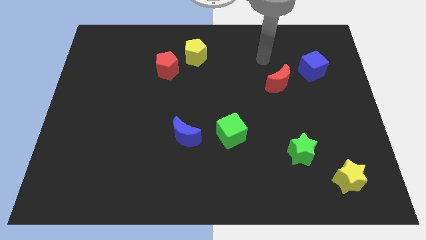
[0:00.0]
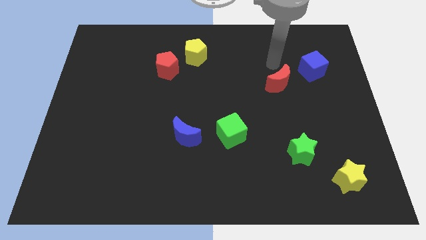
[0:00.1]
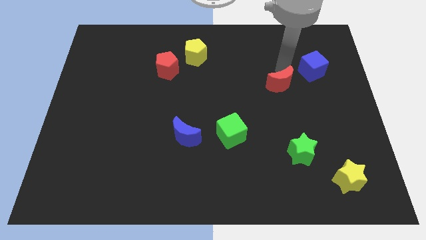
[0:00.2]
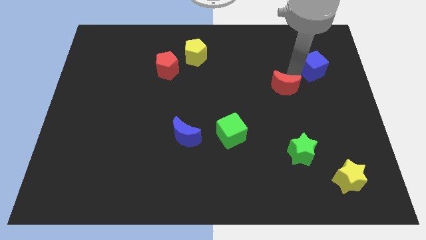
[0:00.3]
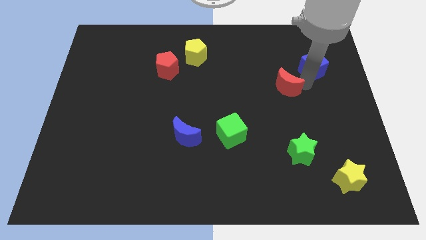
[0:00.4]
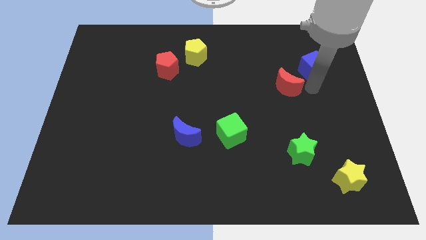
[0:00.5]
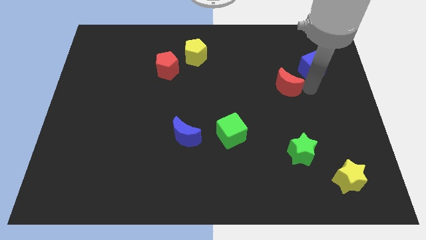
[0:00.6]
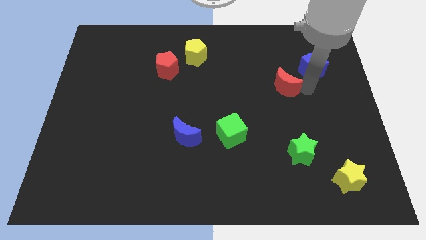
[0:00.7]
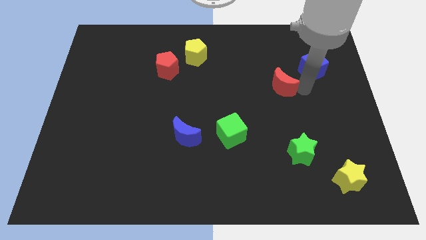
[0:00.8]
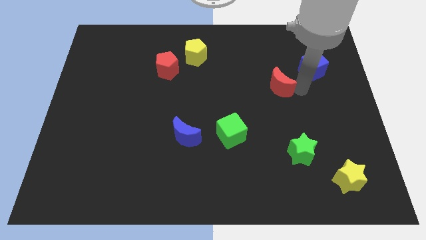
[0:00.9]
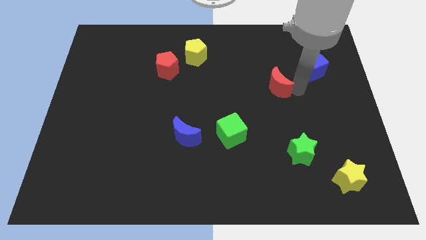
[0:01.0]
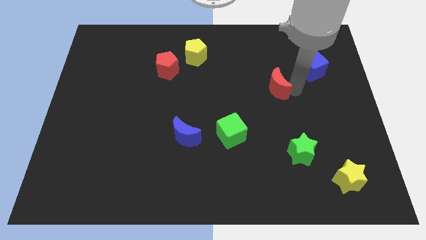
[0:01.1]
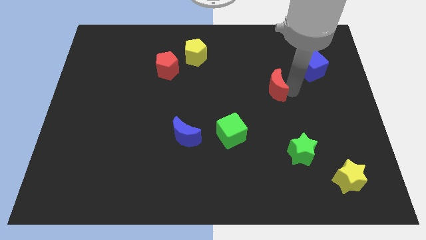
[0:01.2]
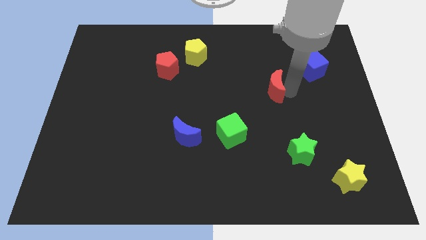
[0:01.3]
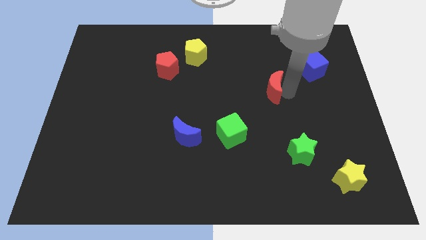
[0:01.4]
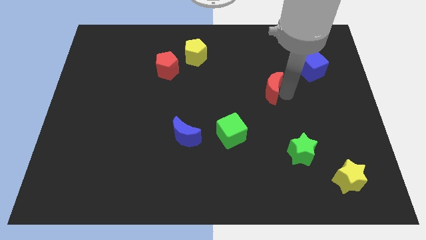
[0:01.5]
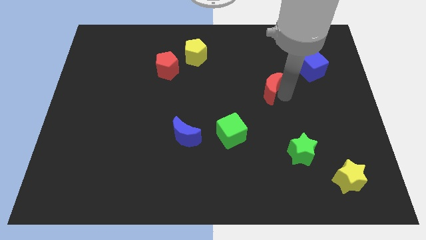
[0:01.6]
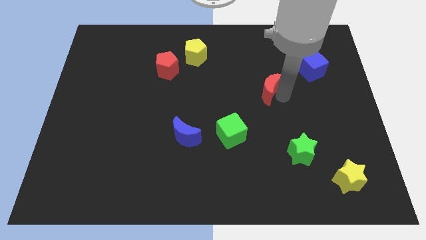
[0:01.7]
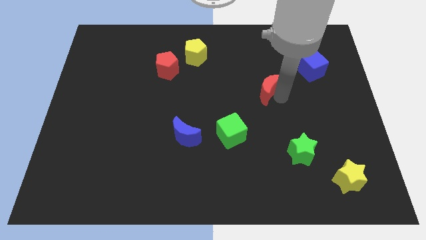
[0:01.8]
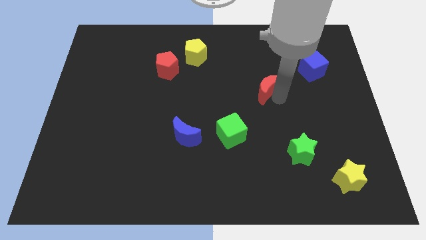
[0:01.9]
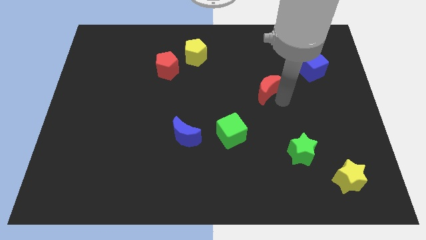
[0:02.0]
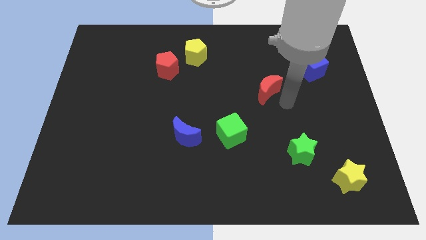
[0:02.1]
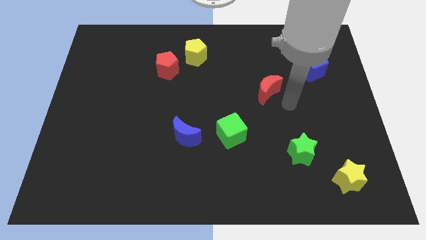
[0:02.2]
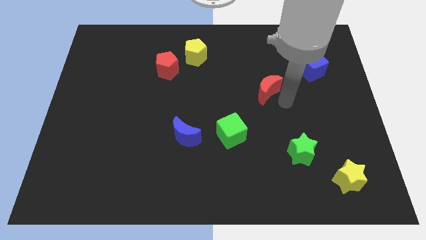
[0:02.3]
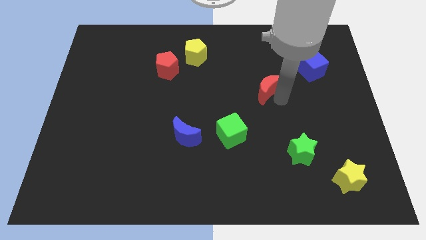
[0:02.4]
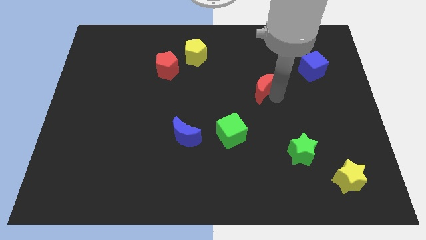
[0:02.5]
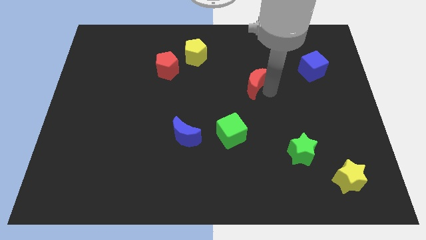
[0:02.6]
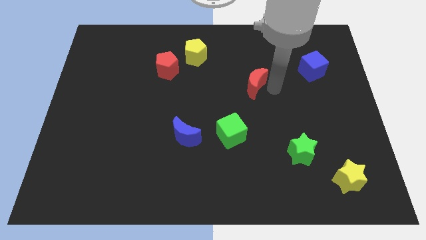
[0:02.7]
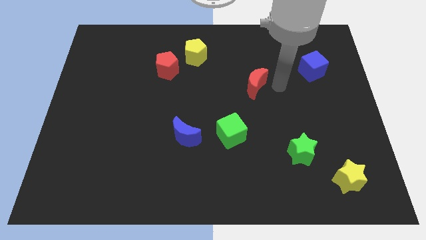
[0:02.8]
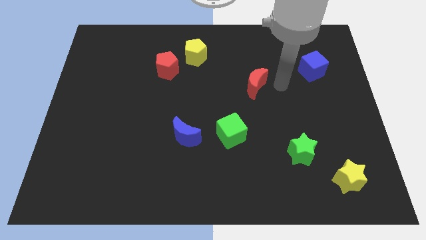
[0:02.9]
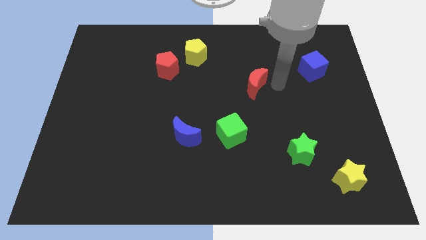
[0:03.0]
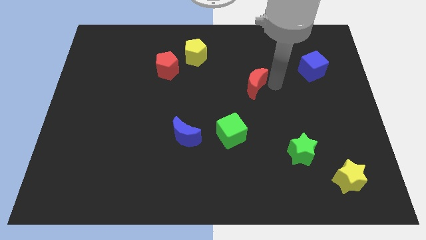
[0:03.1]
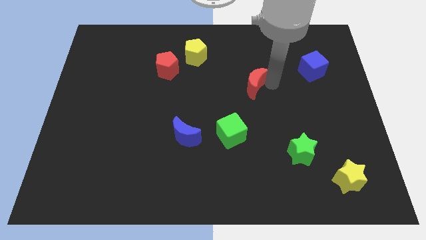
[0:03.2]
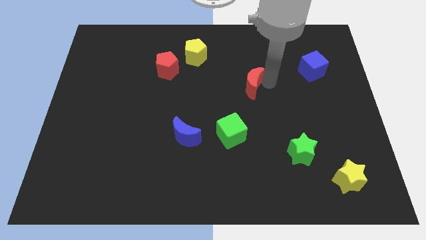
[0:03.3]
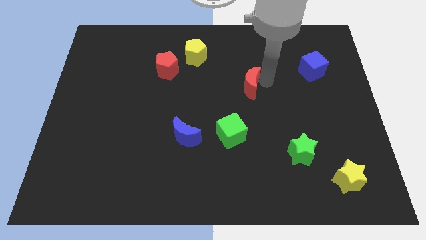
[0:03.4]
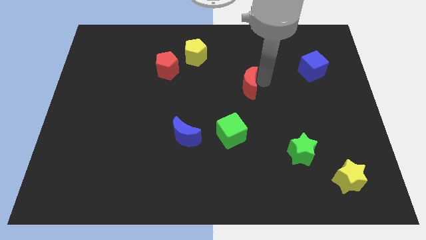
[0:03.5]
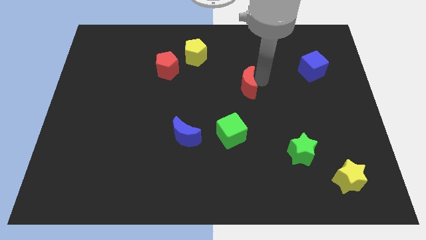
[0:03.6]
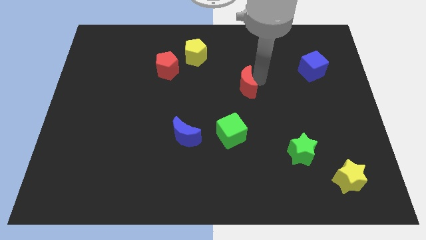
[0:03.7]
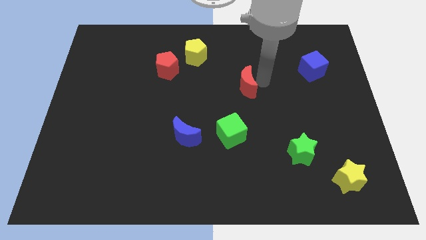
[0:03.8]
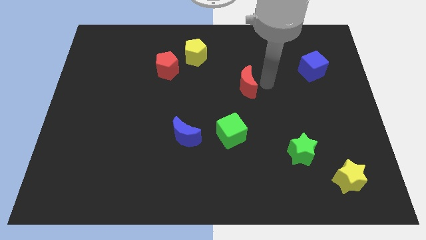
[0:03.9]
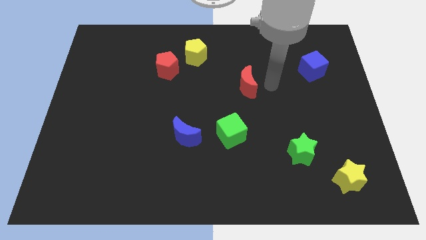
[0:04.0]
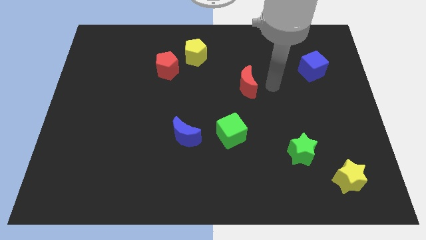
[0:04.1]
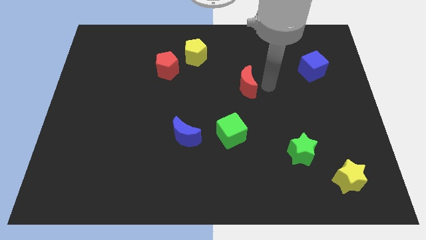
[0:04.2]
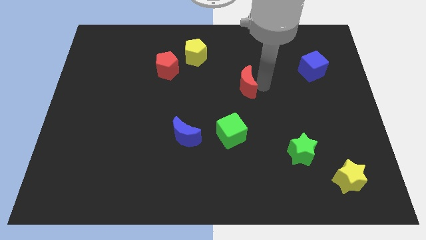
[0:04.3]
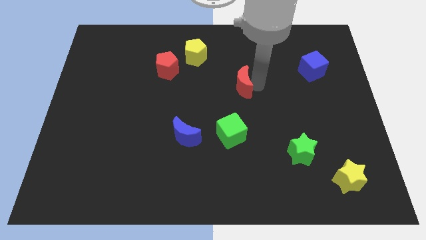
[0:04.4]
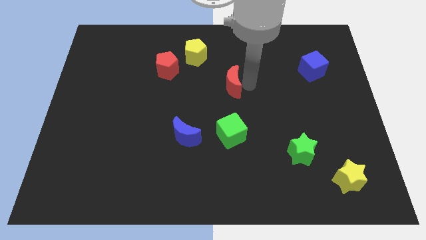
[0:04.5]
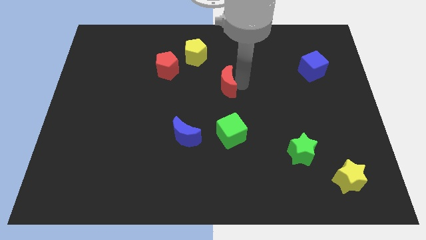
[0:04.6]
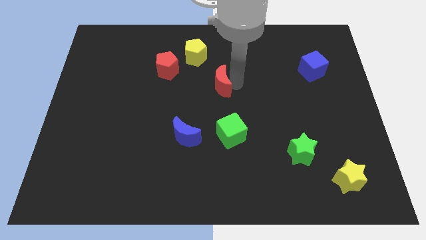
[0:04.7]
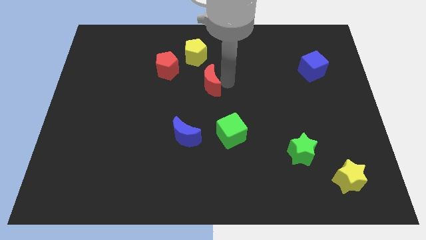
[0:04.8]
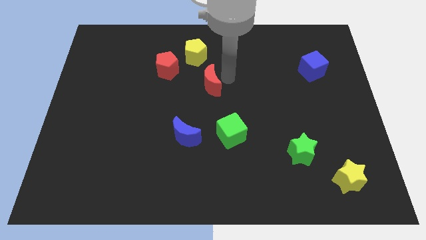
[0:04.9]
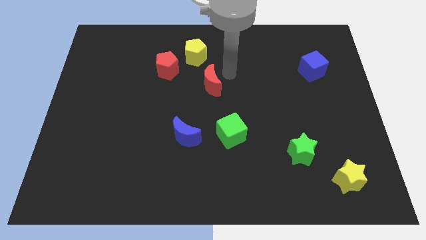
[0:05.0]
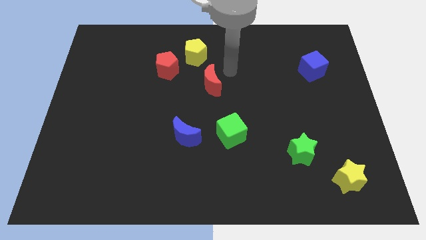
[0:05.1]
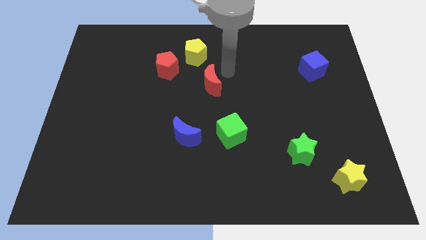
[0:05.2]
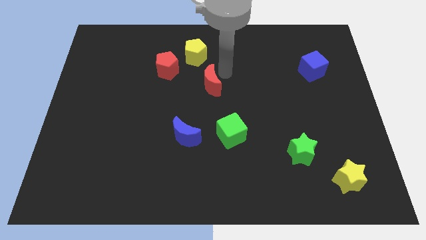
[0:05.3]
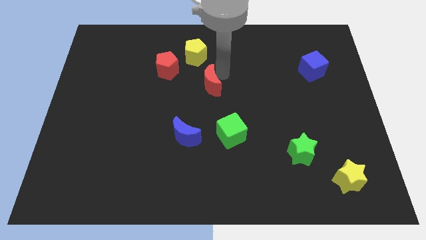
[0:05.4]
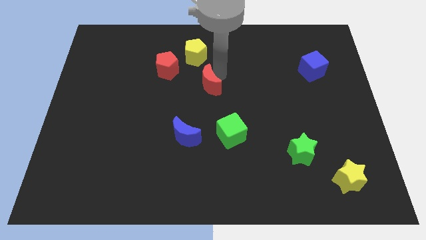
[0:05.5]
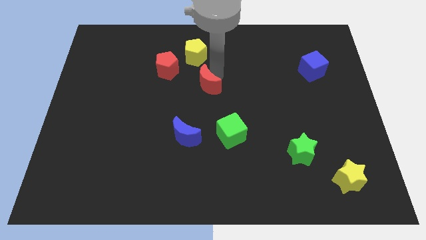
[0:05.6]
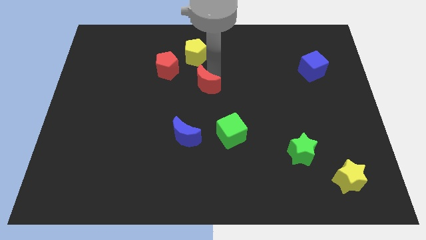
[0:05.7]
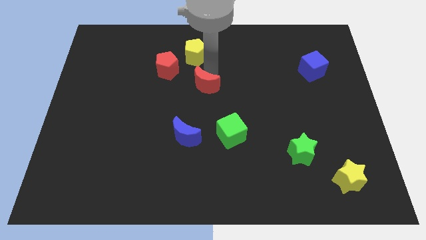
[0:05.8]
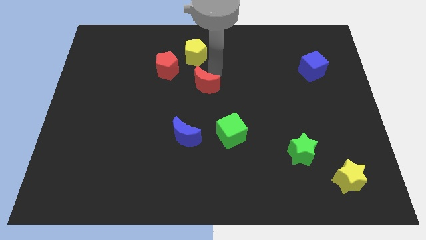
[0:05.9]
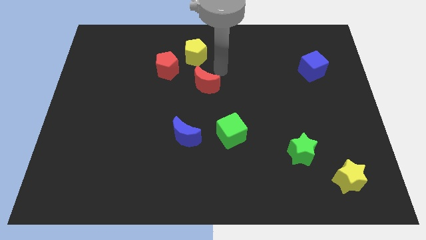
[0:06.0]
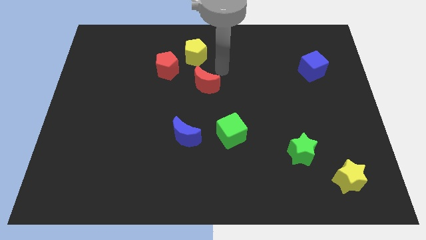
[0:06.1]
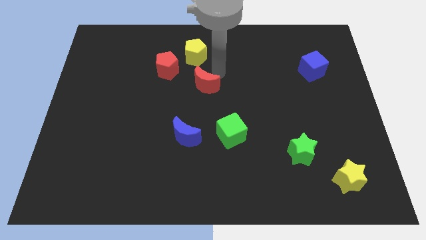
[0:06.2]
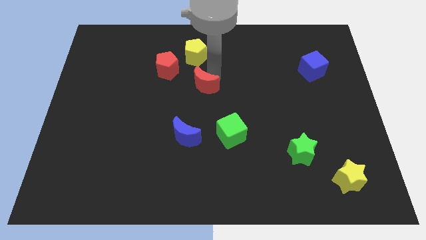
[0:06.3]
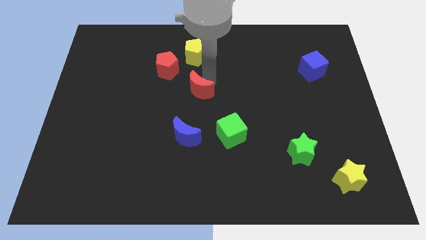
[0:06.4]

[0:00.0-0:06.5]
put the red moon above the blue moon

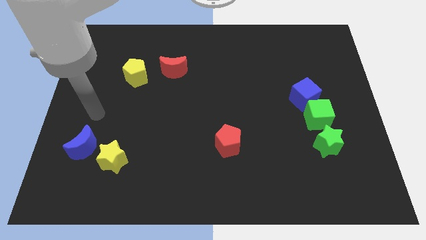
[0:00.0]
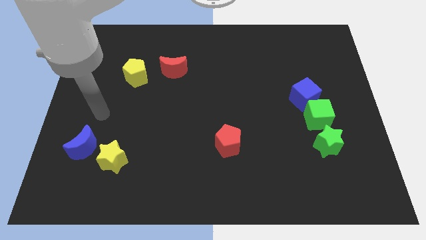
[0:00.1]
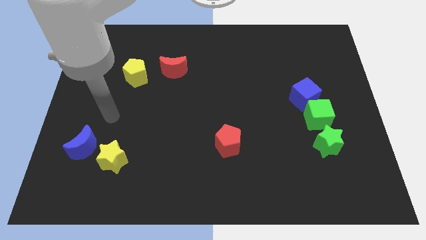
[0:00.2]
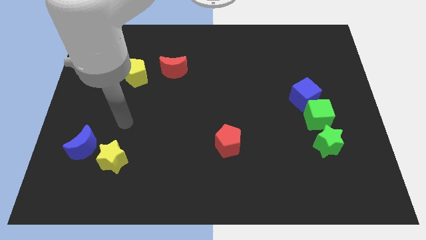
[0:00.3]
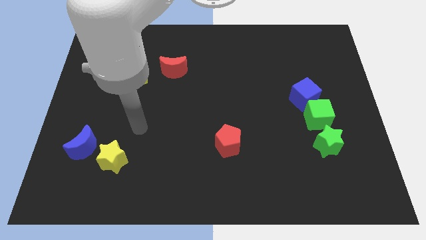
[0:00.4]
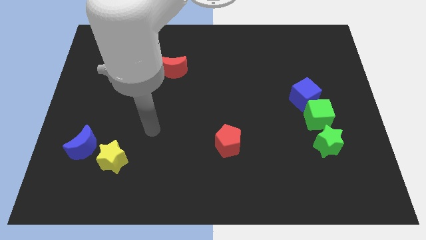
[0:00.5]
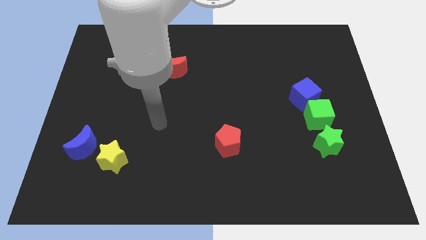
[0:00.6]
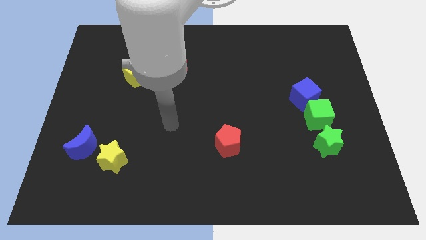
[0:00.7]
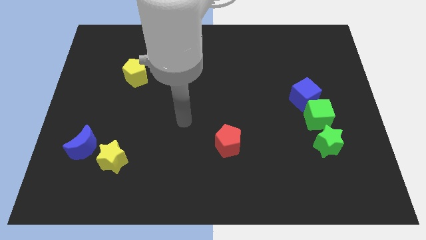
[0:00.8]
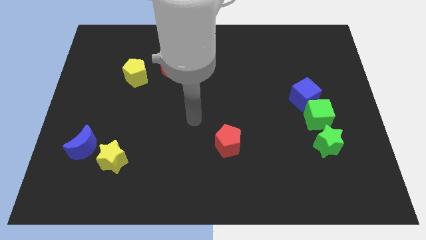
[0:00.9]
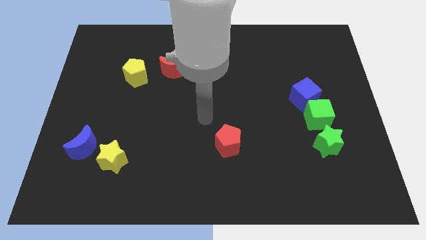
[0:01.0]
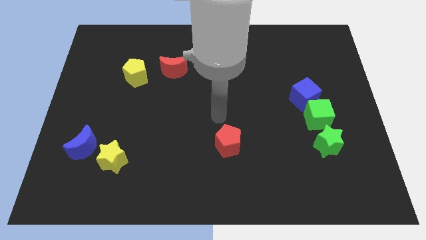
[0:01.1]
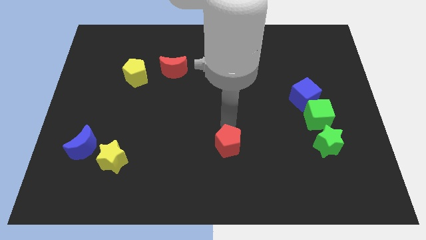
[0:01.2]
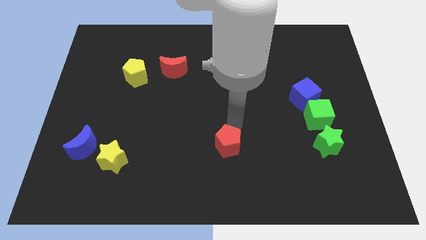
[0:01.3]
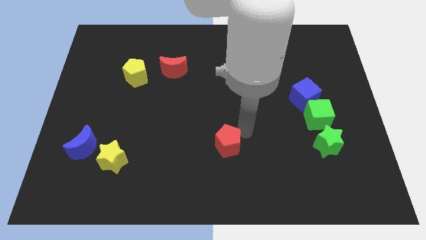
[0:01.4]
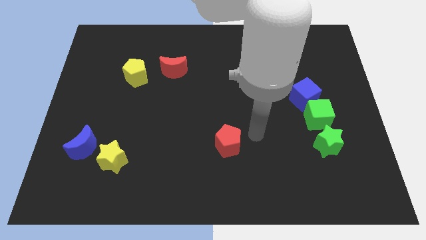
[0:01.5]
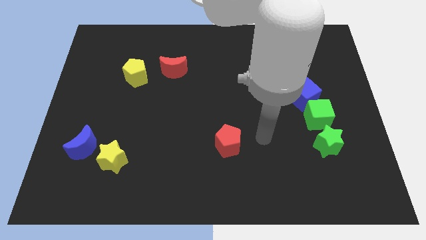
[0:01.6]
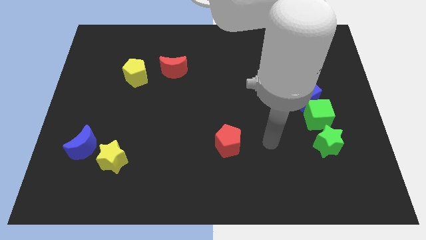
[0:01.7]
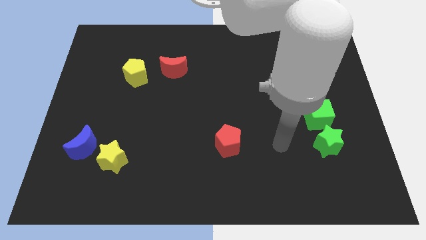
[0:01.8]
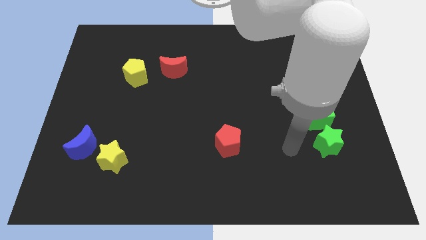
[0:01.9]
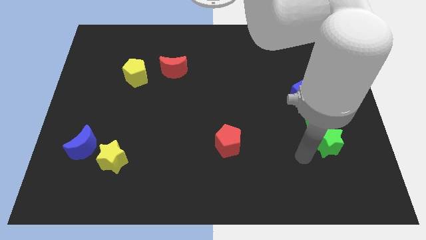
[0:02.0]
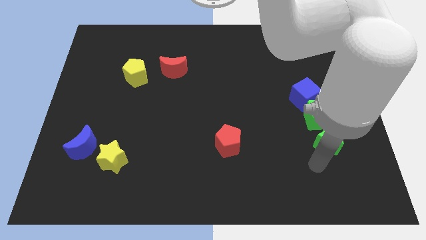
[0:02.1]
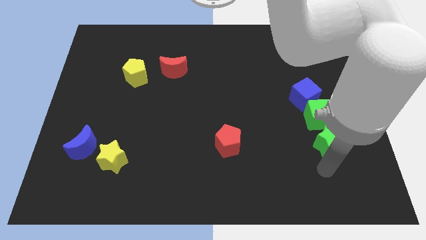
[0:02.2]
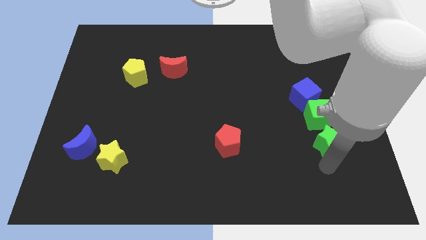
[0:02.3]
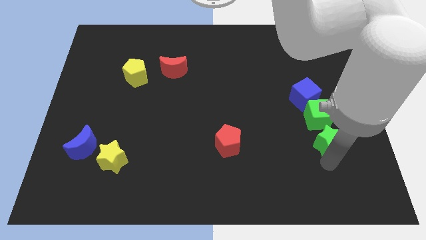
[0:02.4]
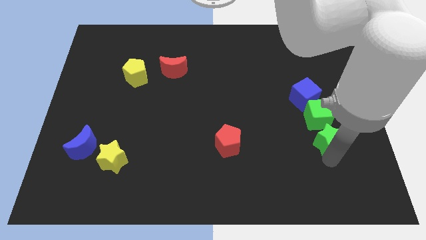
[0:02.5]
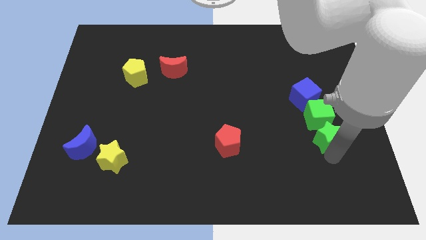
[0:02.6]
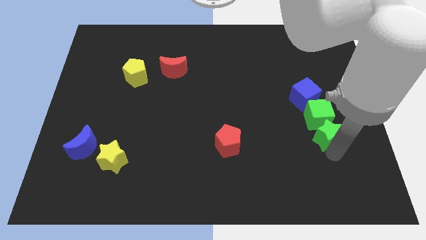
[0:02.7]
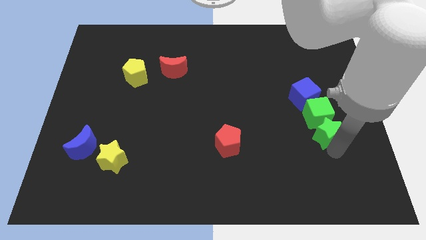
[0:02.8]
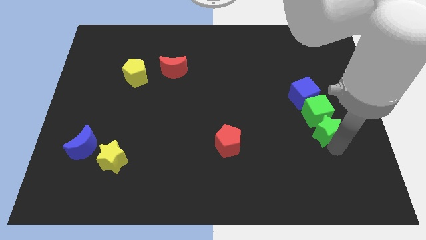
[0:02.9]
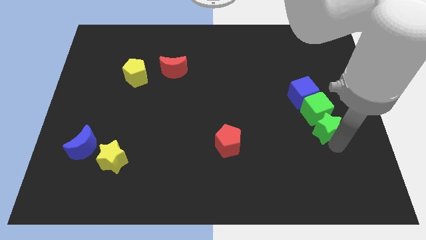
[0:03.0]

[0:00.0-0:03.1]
slide the green star to the bottom right of the blue cube
